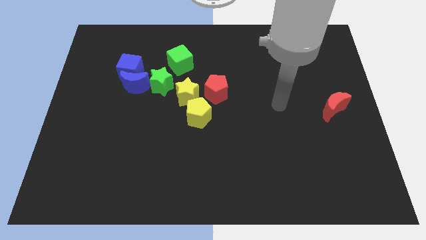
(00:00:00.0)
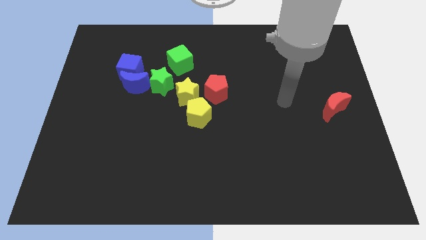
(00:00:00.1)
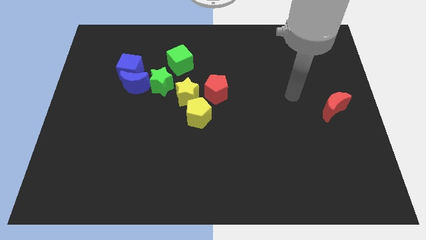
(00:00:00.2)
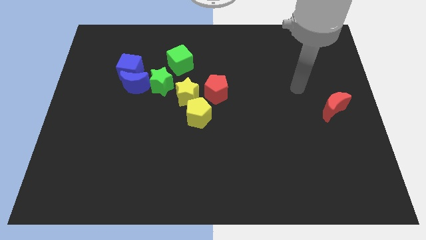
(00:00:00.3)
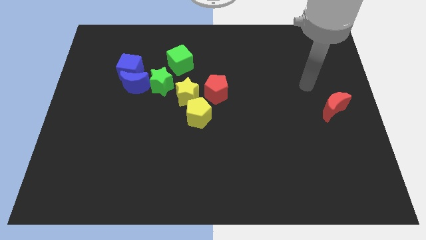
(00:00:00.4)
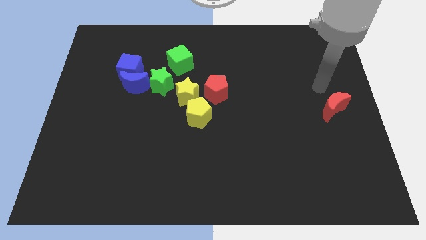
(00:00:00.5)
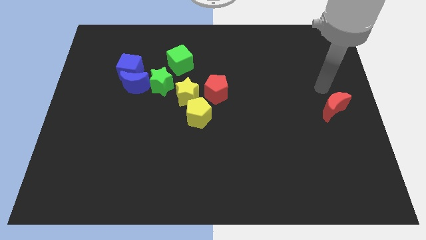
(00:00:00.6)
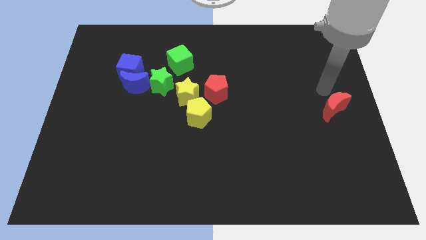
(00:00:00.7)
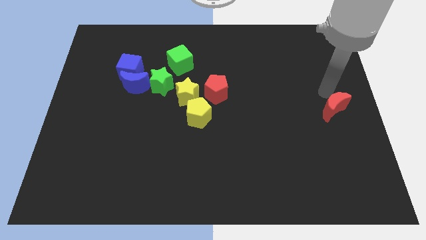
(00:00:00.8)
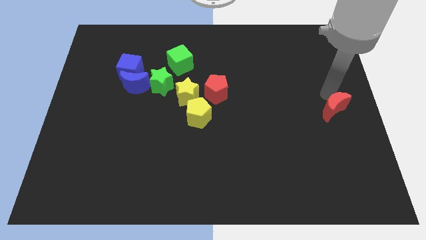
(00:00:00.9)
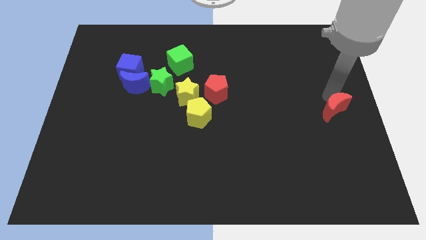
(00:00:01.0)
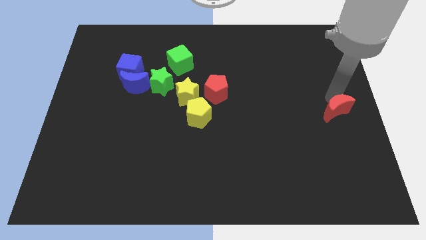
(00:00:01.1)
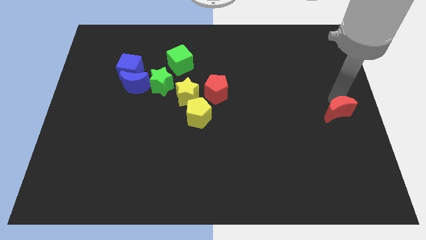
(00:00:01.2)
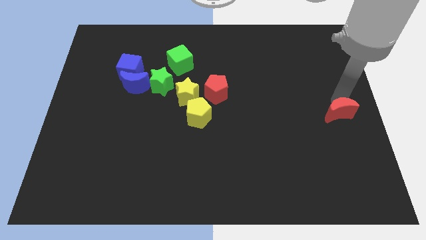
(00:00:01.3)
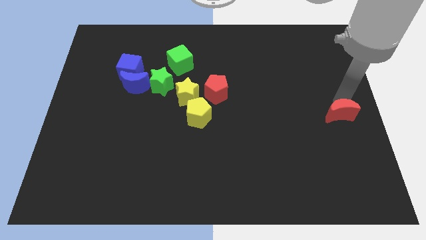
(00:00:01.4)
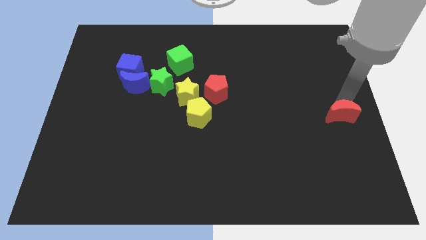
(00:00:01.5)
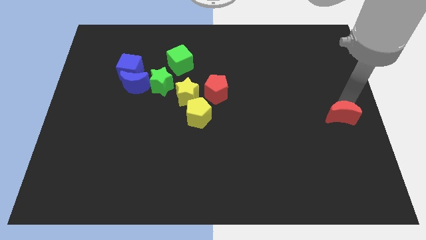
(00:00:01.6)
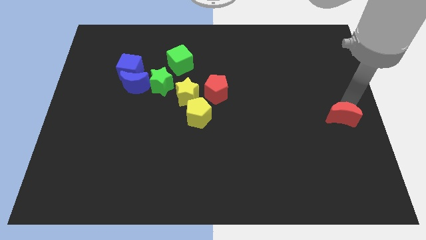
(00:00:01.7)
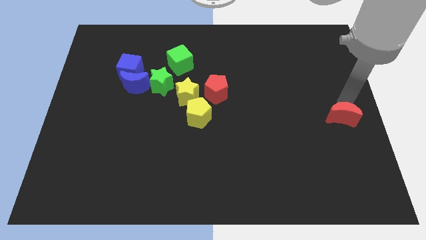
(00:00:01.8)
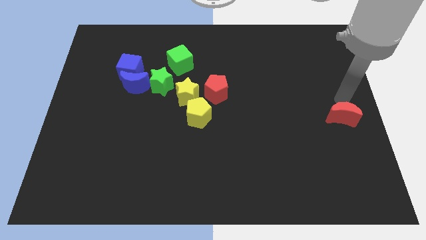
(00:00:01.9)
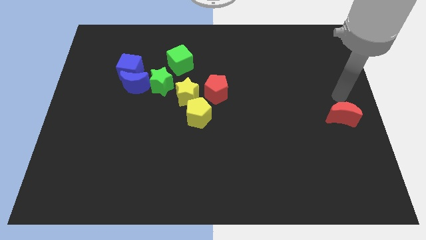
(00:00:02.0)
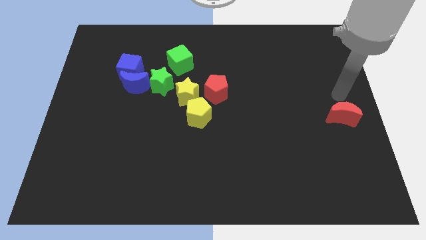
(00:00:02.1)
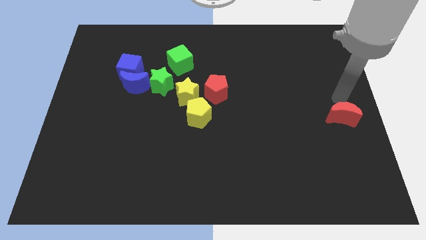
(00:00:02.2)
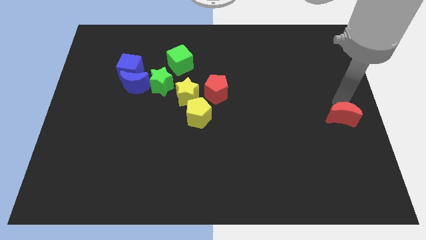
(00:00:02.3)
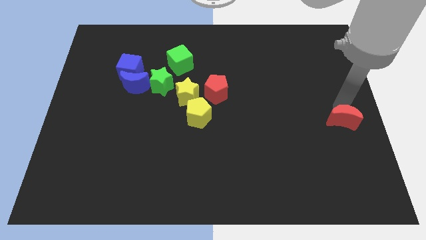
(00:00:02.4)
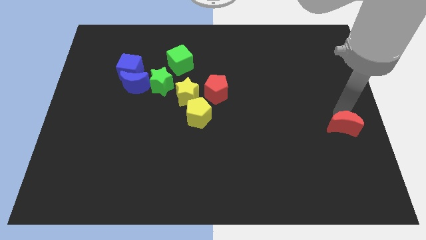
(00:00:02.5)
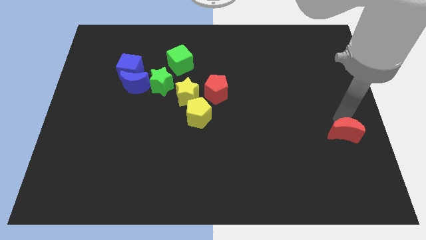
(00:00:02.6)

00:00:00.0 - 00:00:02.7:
push the red moon down a little bit

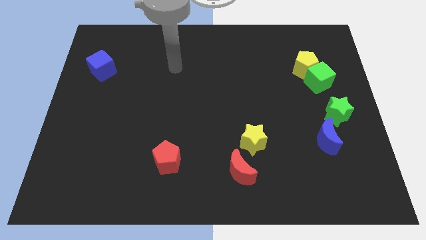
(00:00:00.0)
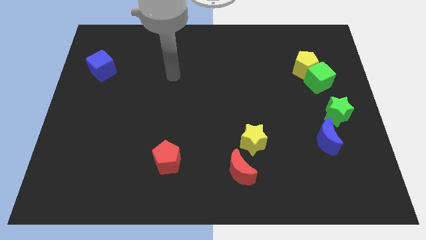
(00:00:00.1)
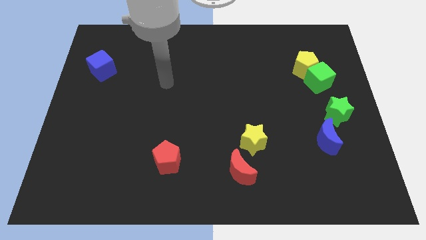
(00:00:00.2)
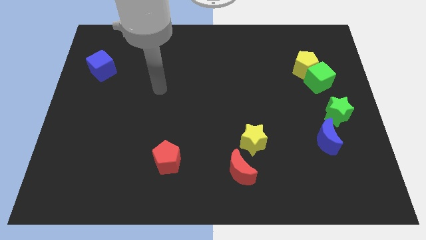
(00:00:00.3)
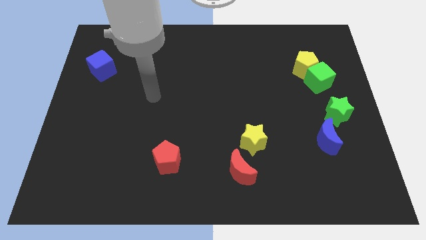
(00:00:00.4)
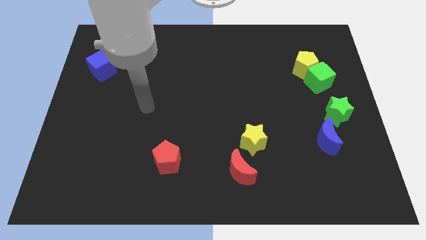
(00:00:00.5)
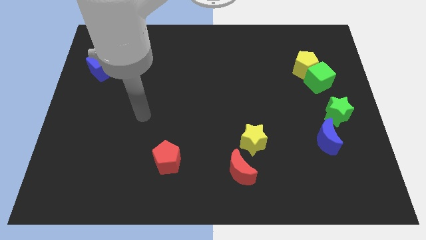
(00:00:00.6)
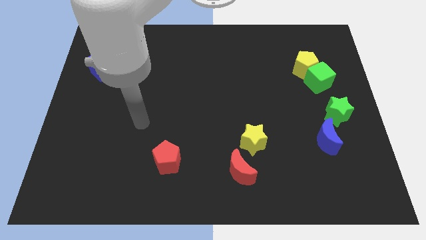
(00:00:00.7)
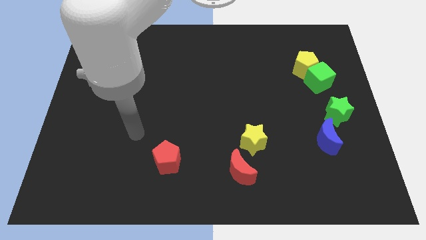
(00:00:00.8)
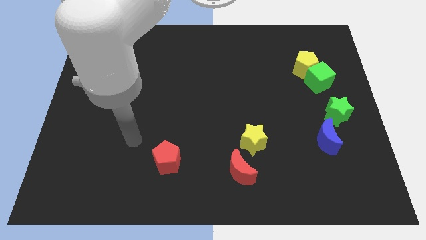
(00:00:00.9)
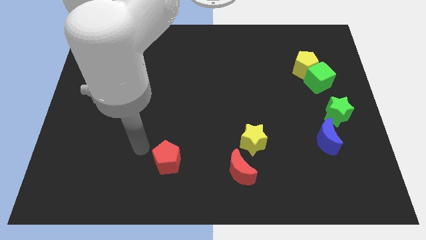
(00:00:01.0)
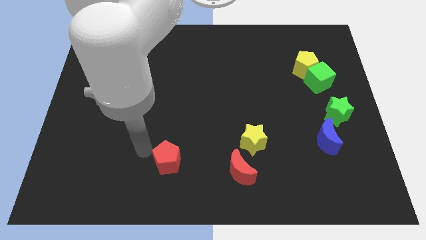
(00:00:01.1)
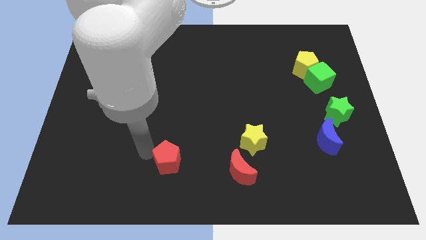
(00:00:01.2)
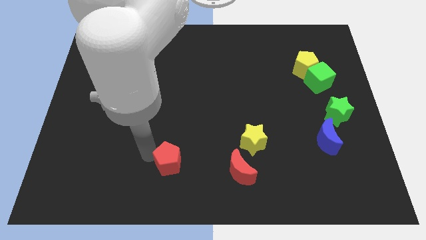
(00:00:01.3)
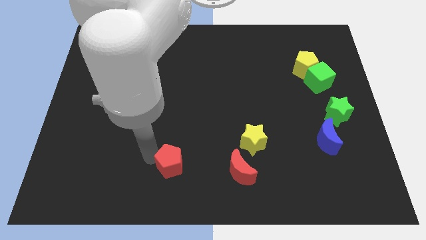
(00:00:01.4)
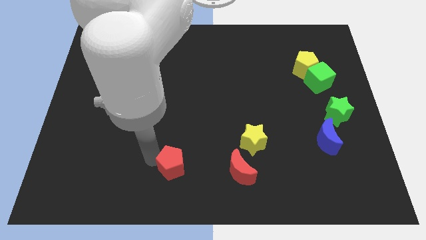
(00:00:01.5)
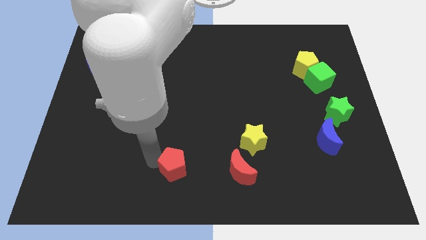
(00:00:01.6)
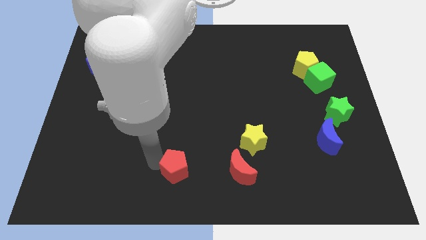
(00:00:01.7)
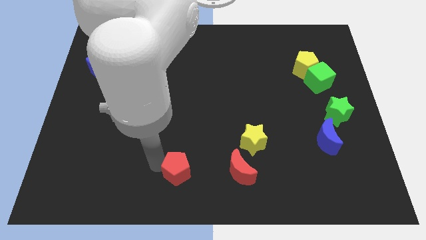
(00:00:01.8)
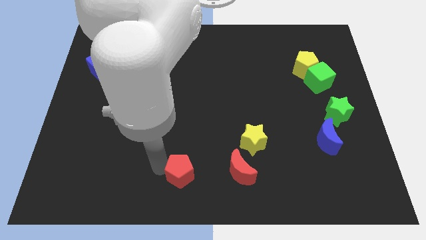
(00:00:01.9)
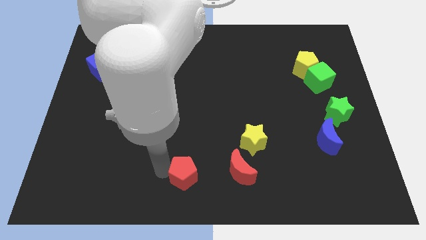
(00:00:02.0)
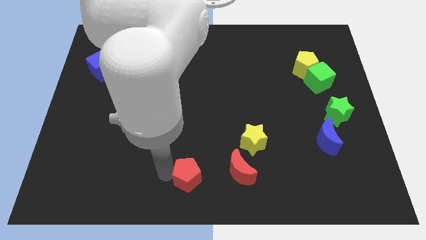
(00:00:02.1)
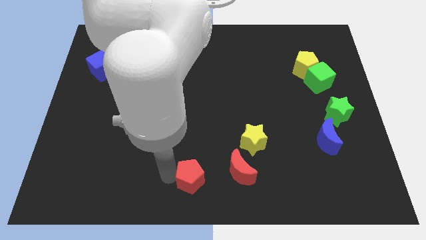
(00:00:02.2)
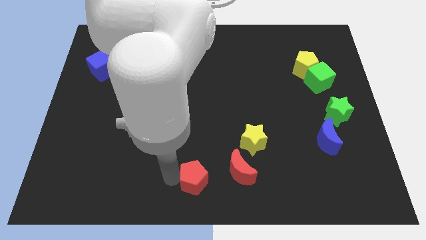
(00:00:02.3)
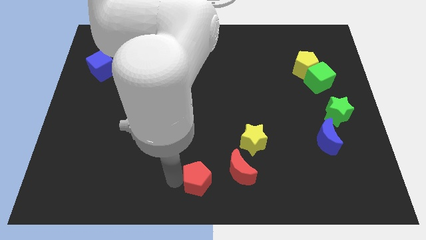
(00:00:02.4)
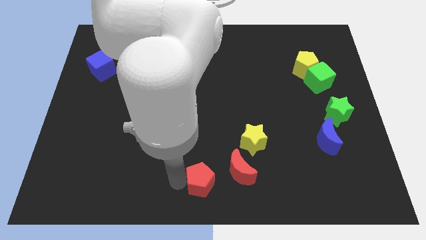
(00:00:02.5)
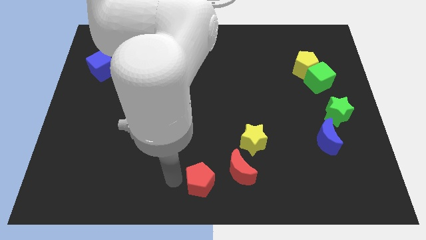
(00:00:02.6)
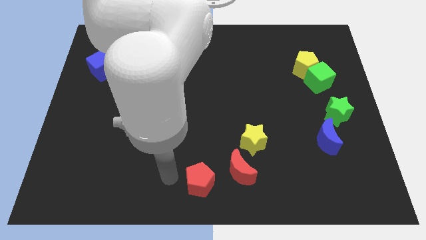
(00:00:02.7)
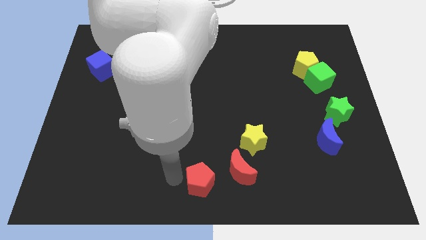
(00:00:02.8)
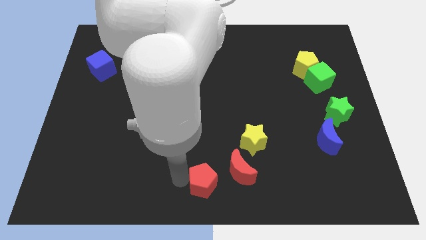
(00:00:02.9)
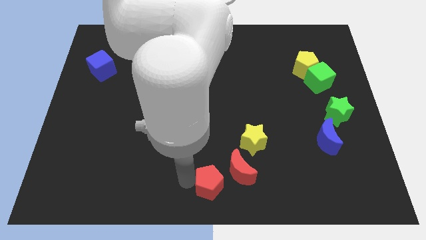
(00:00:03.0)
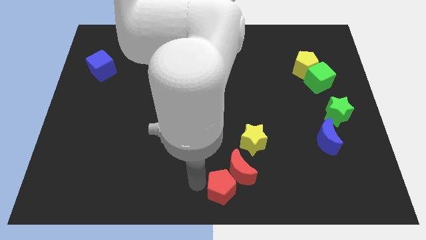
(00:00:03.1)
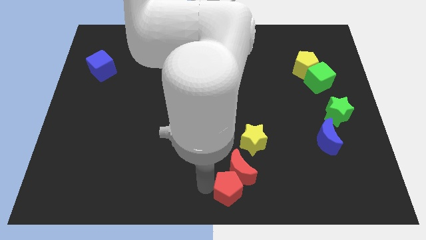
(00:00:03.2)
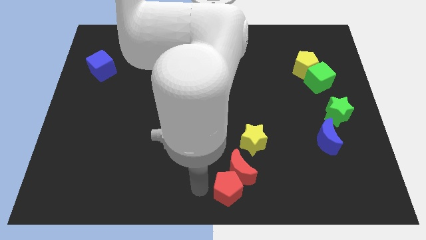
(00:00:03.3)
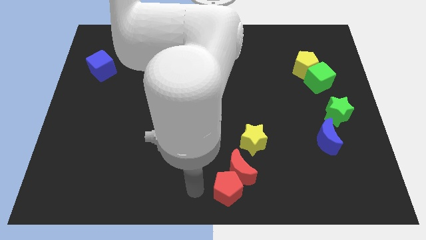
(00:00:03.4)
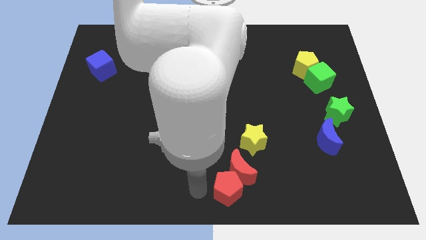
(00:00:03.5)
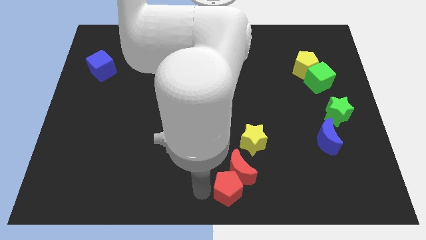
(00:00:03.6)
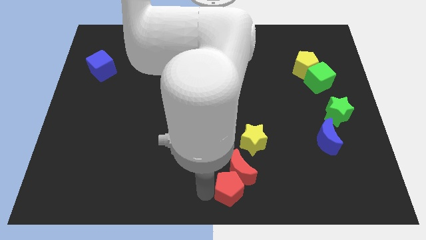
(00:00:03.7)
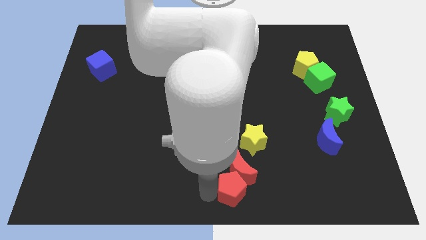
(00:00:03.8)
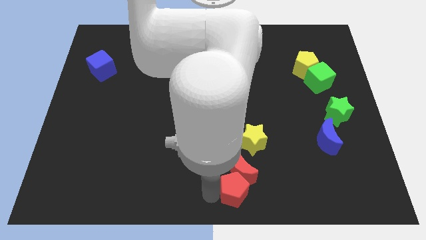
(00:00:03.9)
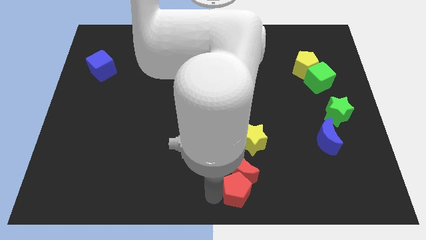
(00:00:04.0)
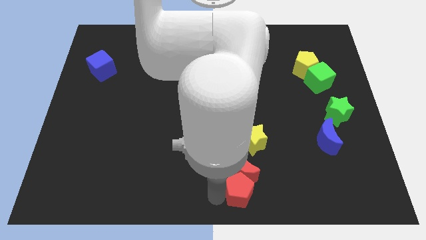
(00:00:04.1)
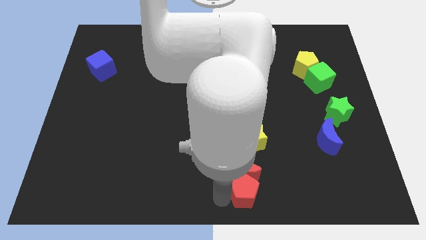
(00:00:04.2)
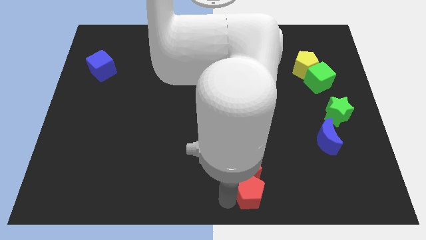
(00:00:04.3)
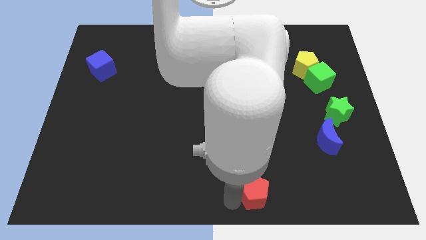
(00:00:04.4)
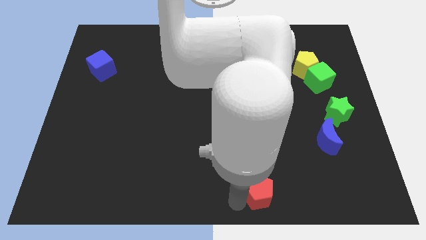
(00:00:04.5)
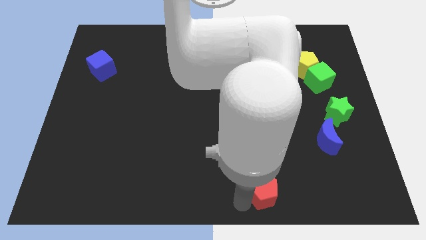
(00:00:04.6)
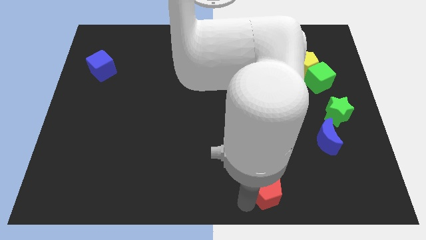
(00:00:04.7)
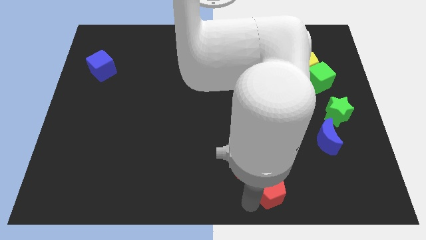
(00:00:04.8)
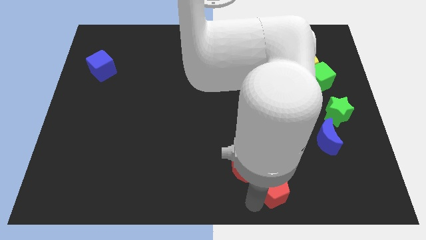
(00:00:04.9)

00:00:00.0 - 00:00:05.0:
move the red pentagon right
